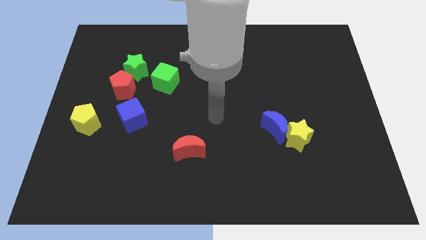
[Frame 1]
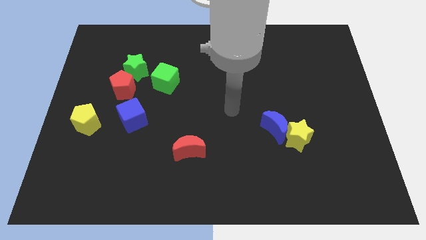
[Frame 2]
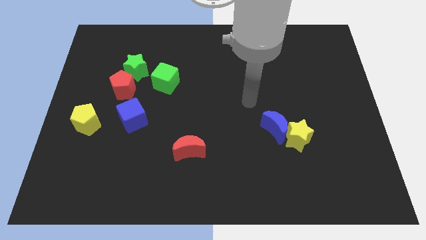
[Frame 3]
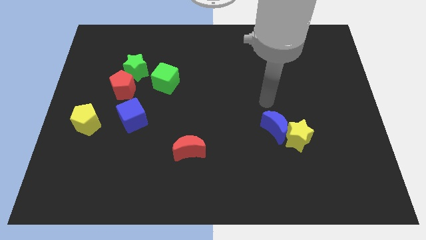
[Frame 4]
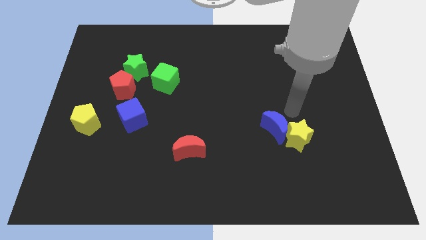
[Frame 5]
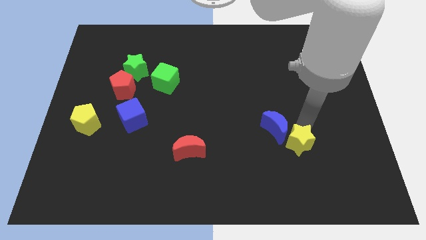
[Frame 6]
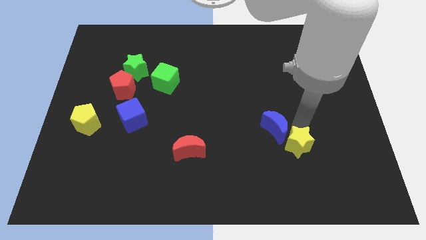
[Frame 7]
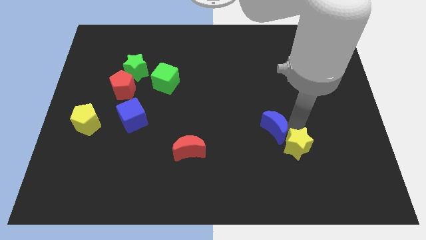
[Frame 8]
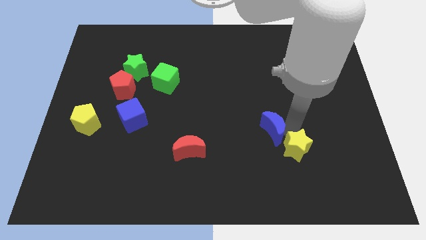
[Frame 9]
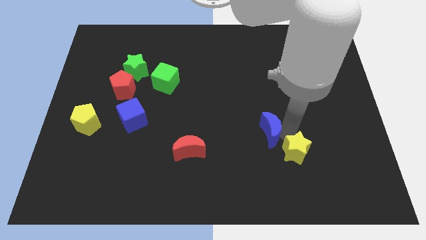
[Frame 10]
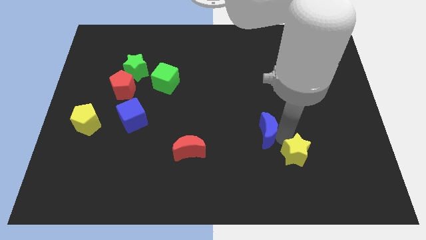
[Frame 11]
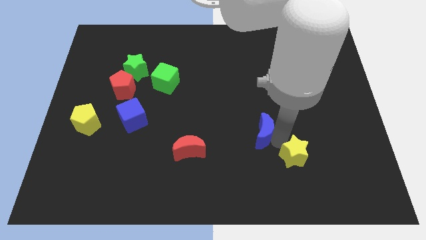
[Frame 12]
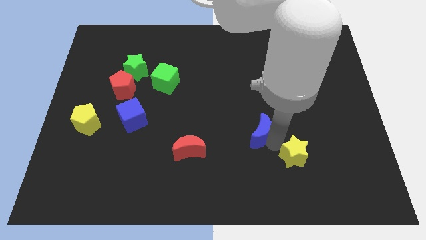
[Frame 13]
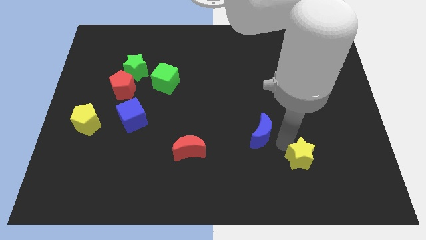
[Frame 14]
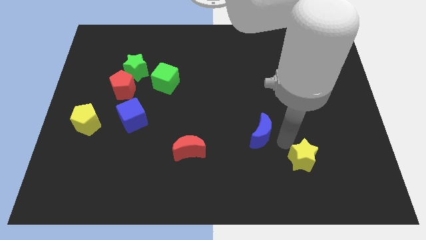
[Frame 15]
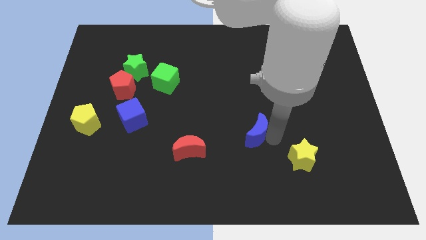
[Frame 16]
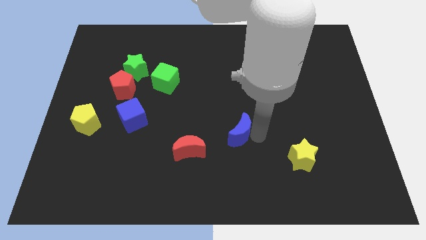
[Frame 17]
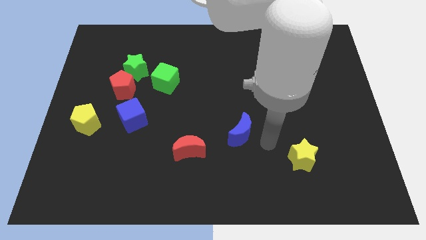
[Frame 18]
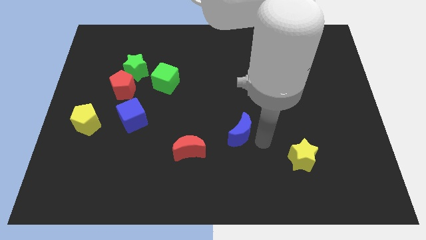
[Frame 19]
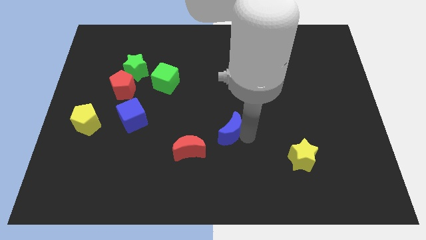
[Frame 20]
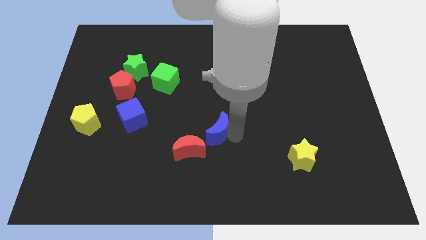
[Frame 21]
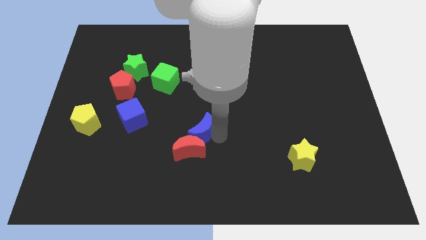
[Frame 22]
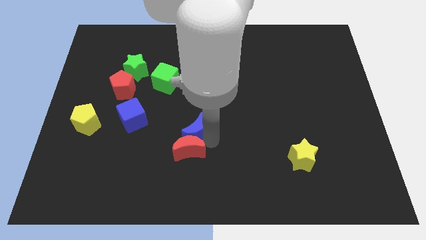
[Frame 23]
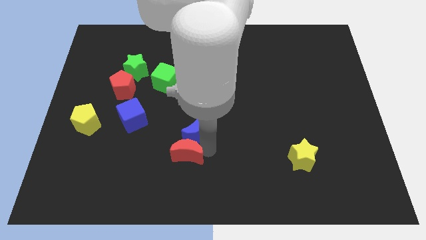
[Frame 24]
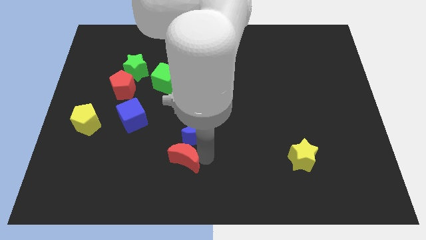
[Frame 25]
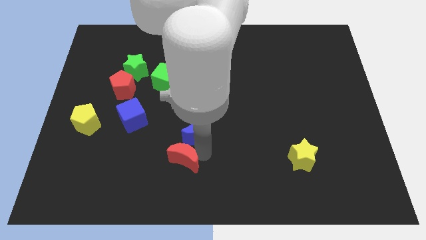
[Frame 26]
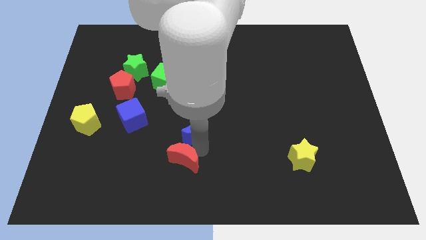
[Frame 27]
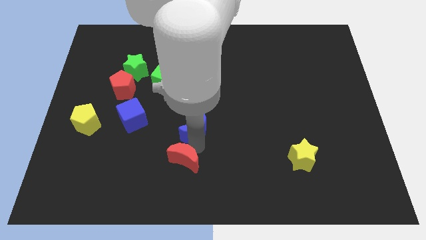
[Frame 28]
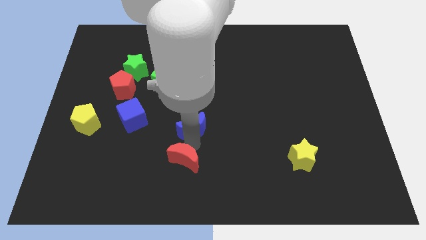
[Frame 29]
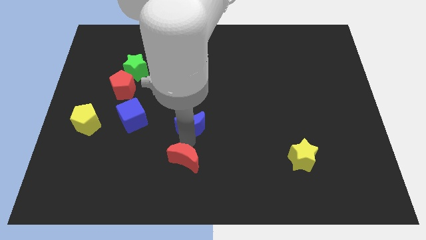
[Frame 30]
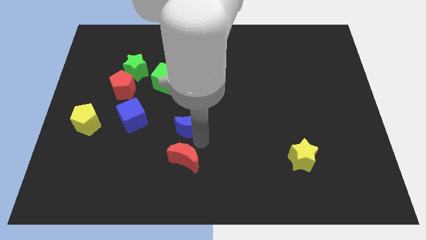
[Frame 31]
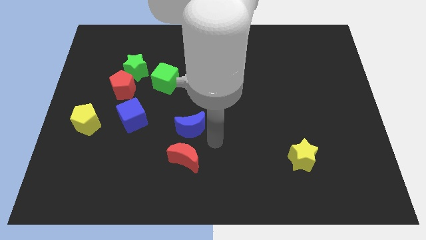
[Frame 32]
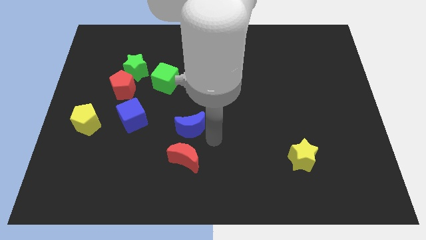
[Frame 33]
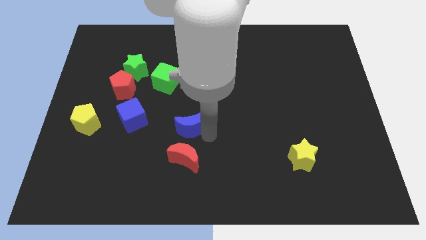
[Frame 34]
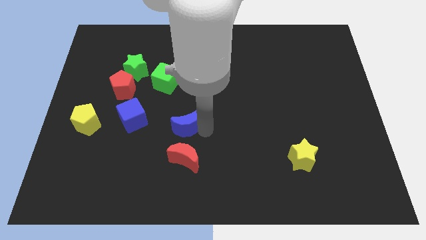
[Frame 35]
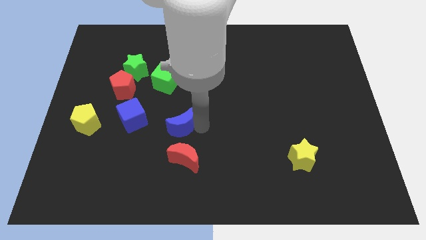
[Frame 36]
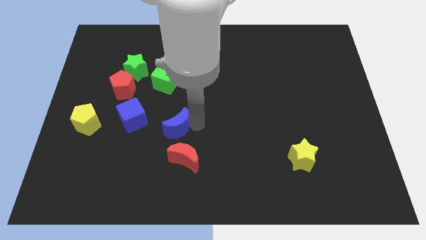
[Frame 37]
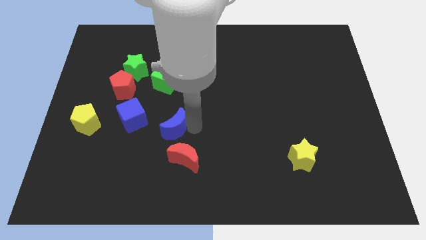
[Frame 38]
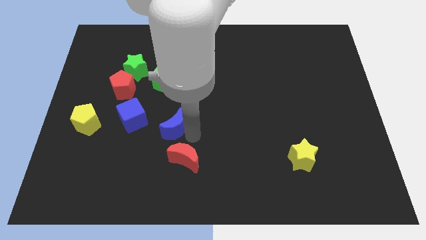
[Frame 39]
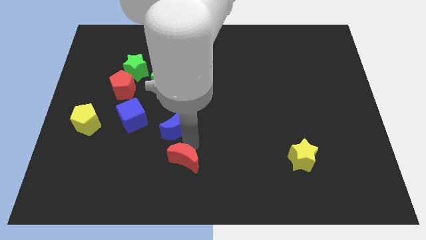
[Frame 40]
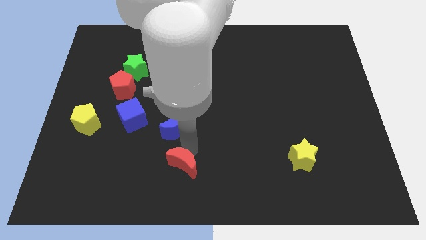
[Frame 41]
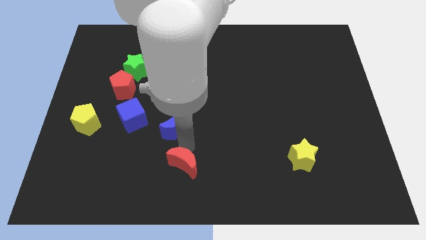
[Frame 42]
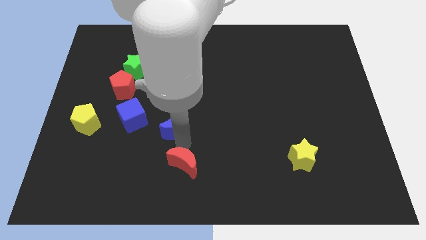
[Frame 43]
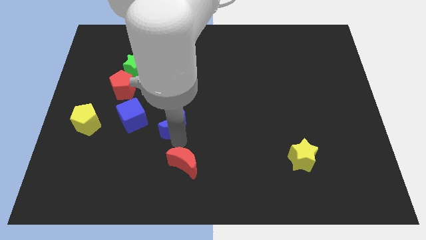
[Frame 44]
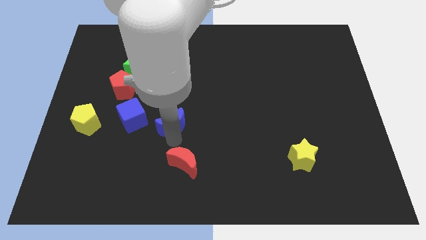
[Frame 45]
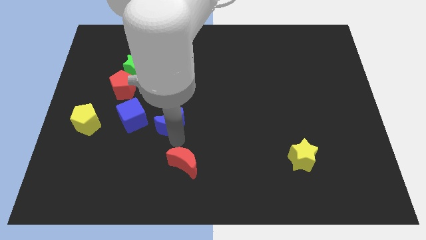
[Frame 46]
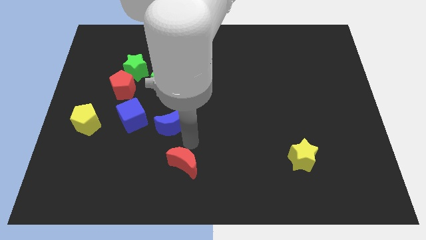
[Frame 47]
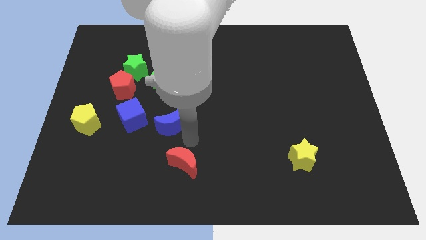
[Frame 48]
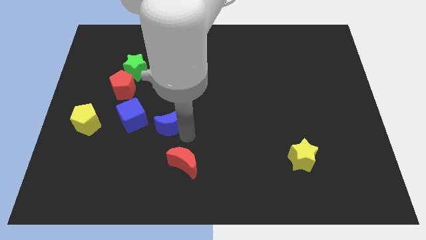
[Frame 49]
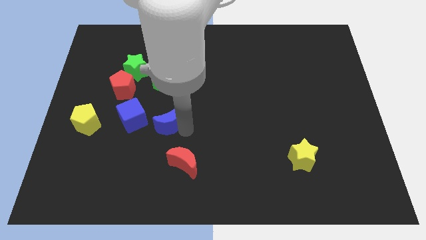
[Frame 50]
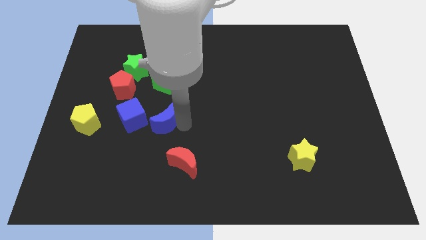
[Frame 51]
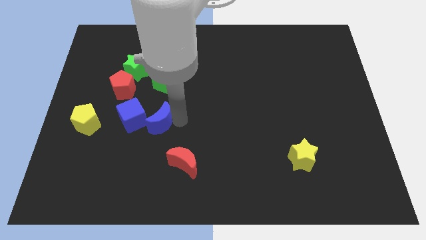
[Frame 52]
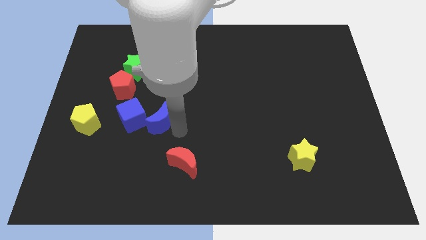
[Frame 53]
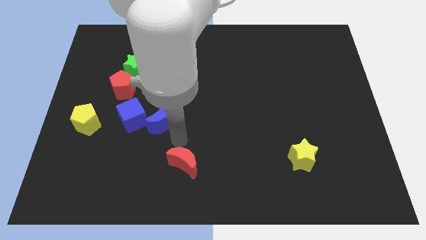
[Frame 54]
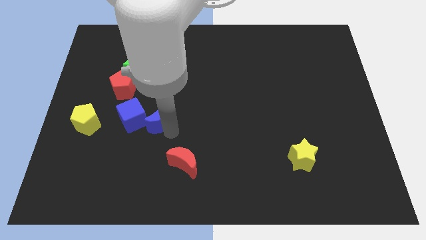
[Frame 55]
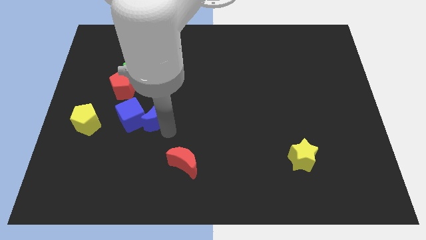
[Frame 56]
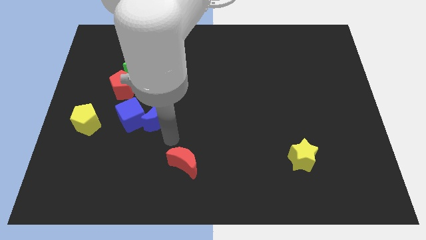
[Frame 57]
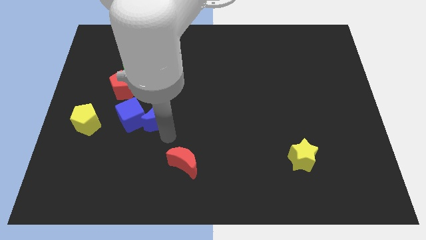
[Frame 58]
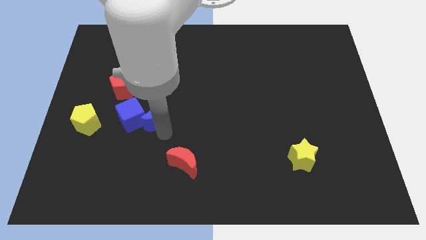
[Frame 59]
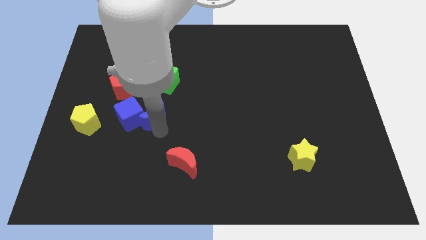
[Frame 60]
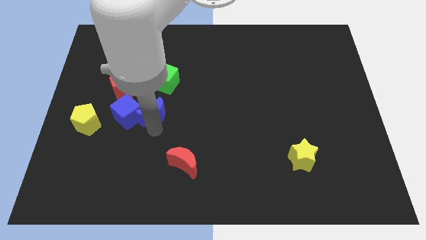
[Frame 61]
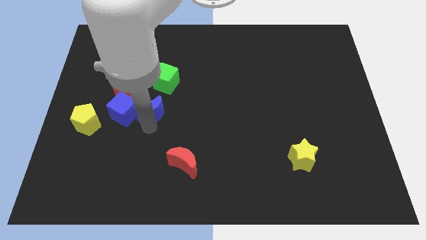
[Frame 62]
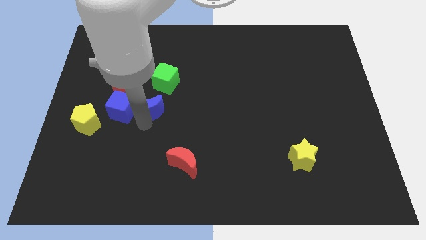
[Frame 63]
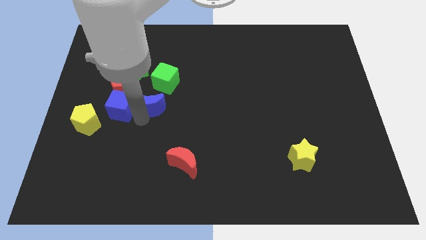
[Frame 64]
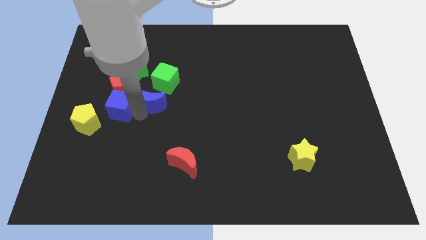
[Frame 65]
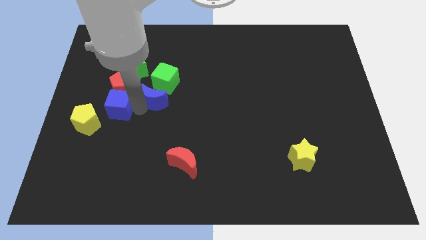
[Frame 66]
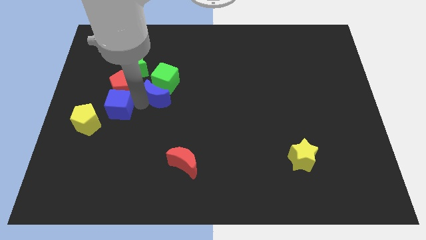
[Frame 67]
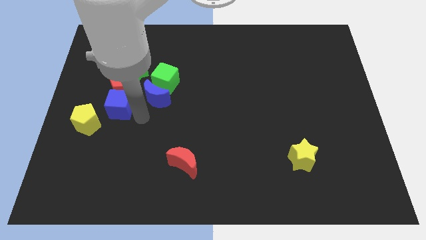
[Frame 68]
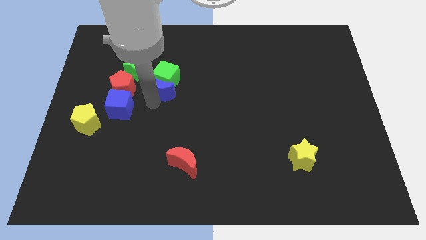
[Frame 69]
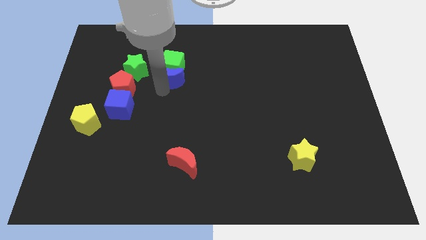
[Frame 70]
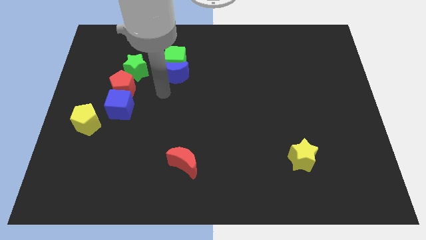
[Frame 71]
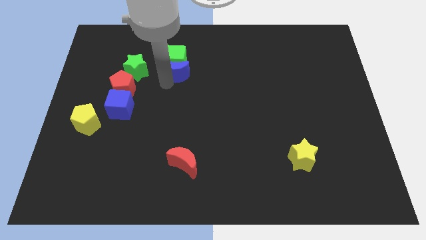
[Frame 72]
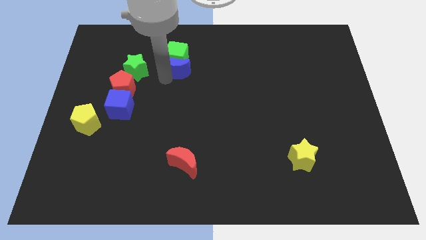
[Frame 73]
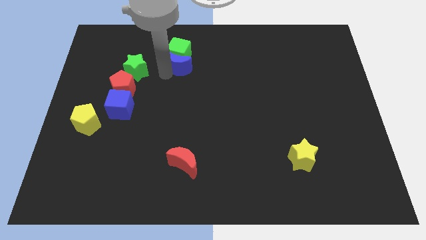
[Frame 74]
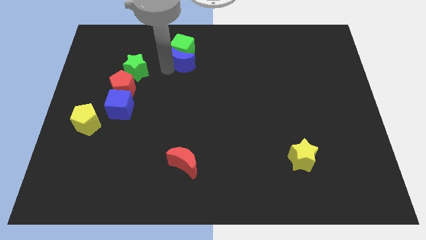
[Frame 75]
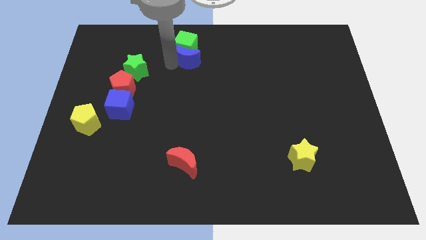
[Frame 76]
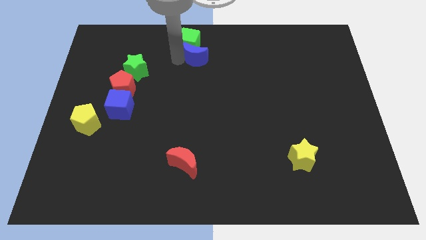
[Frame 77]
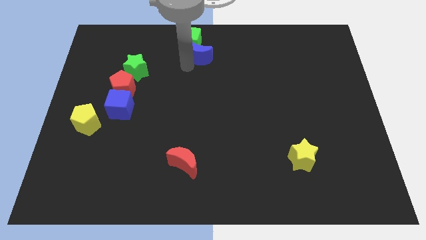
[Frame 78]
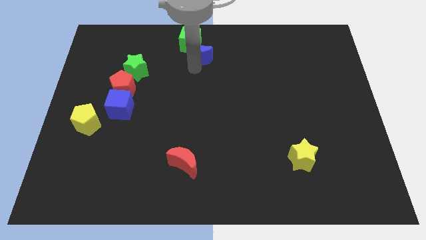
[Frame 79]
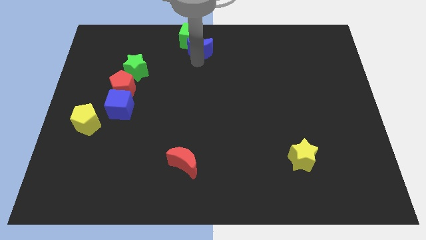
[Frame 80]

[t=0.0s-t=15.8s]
push the blue moon to the top
